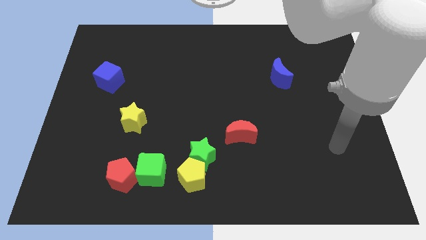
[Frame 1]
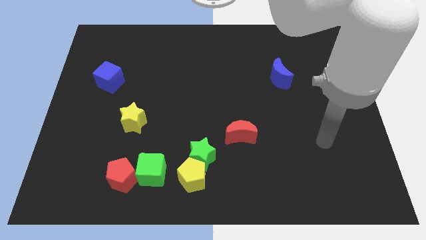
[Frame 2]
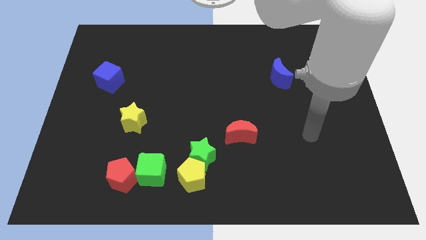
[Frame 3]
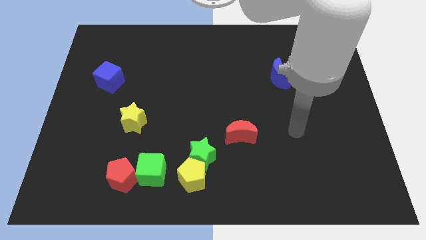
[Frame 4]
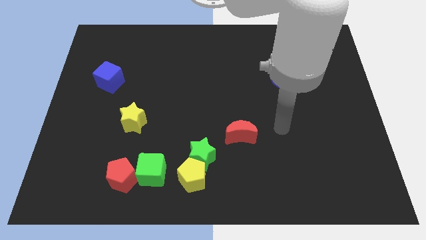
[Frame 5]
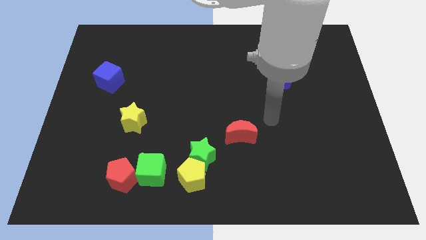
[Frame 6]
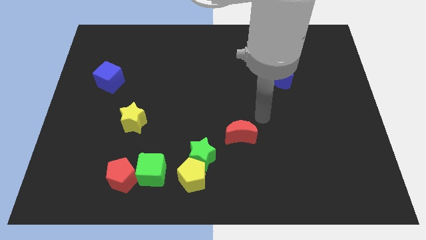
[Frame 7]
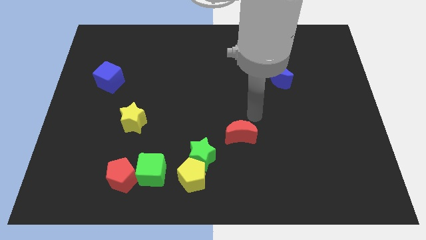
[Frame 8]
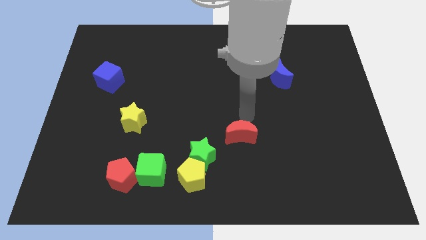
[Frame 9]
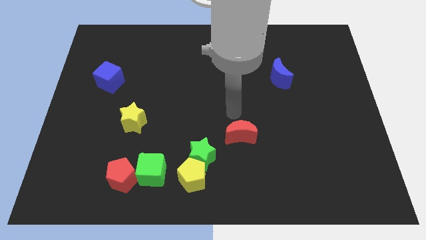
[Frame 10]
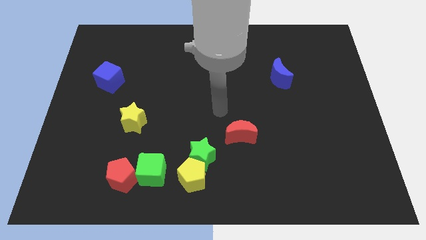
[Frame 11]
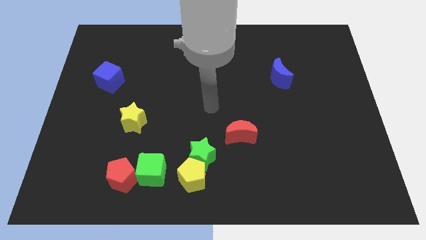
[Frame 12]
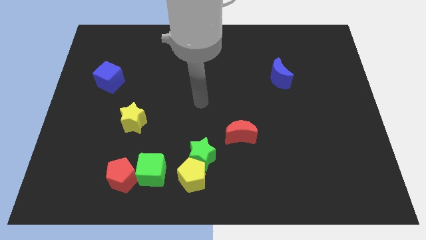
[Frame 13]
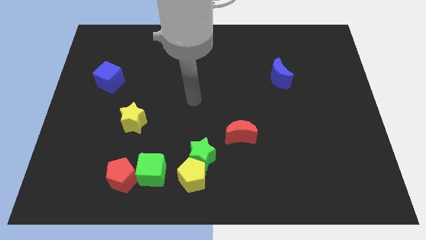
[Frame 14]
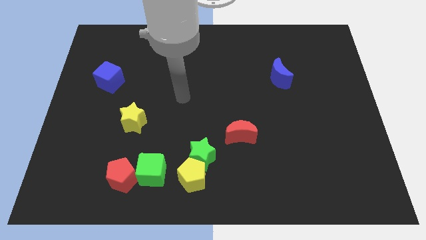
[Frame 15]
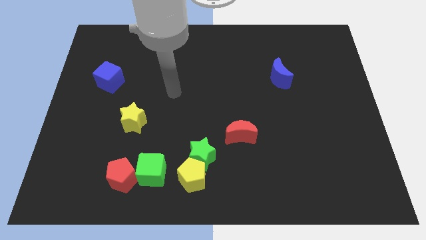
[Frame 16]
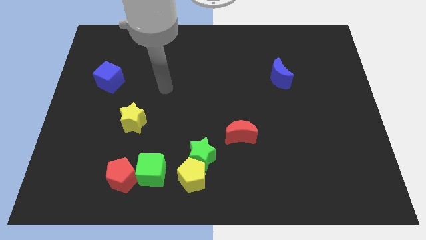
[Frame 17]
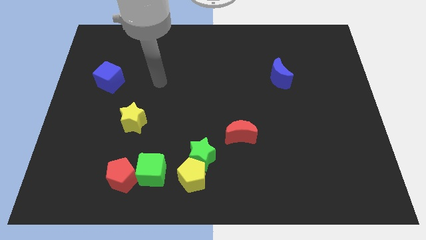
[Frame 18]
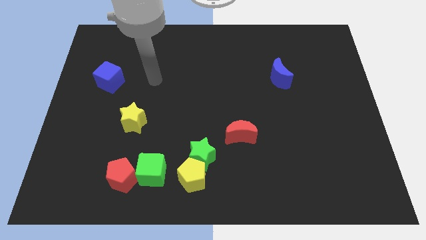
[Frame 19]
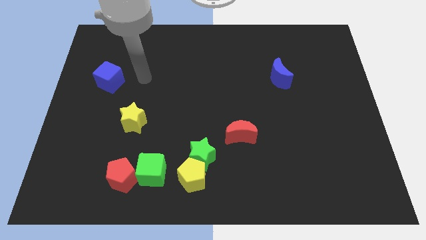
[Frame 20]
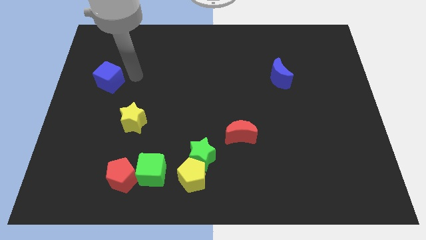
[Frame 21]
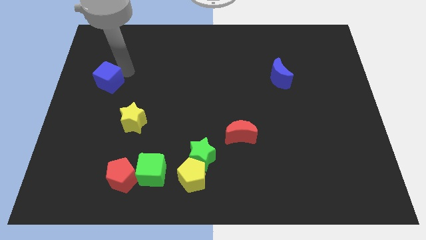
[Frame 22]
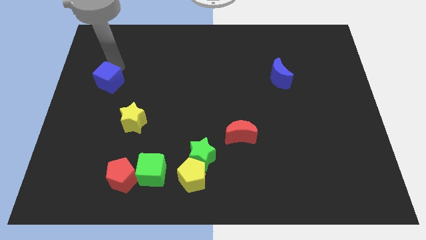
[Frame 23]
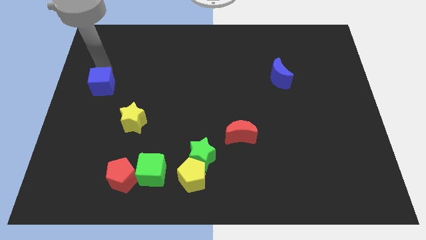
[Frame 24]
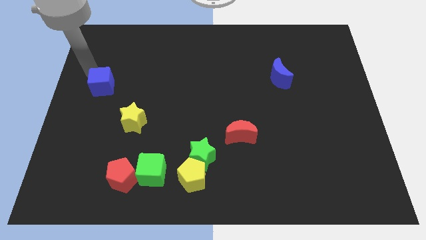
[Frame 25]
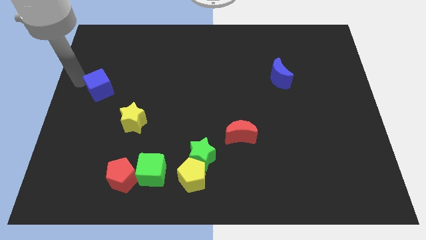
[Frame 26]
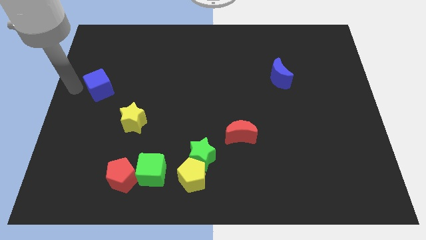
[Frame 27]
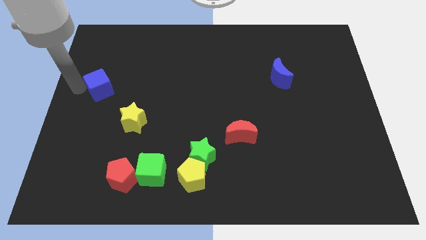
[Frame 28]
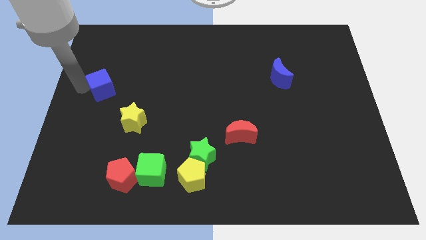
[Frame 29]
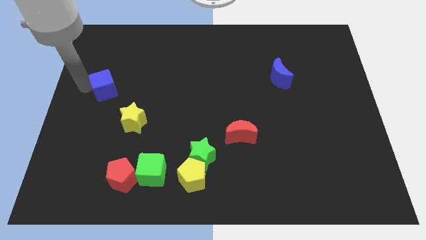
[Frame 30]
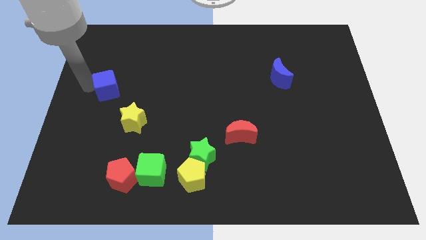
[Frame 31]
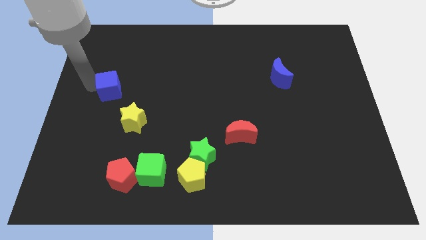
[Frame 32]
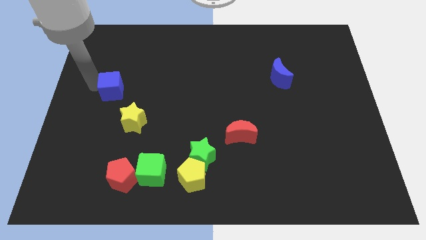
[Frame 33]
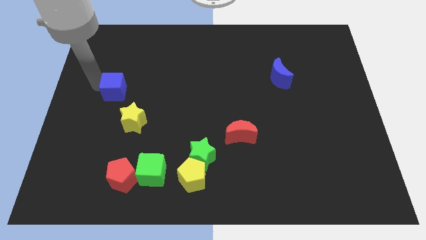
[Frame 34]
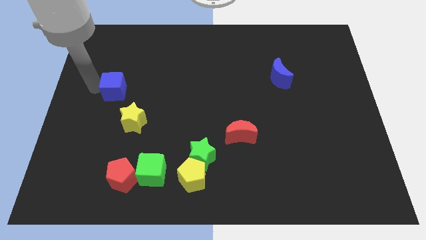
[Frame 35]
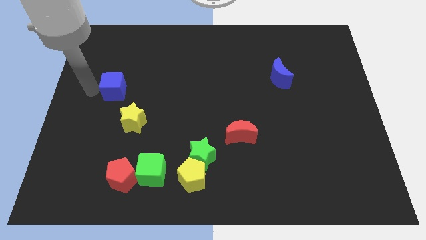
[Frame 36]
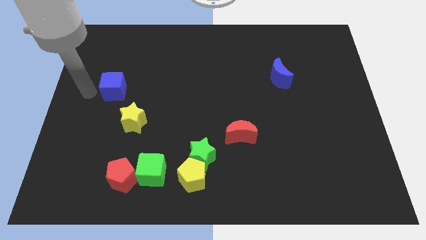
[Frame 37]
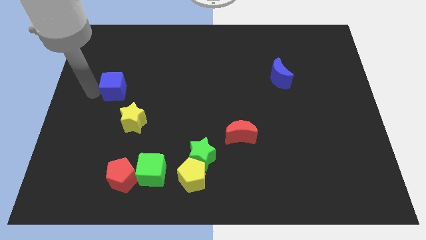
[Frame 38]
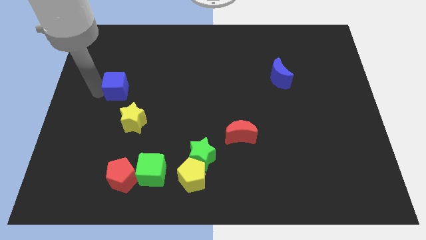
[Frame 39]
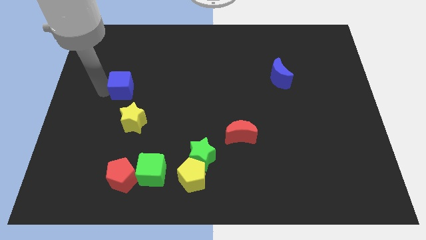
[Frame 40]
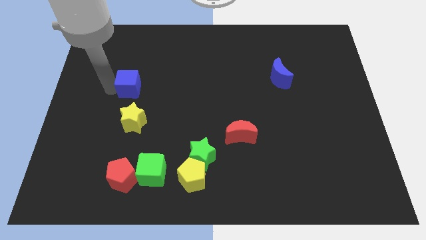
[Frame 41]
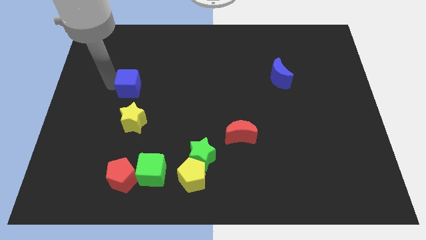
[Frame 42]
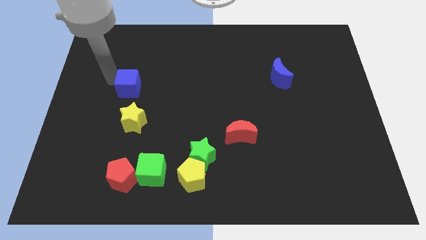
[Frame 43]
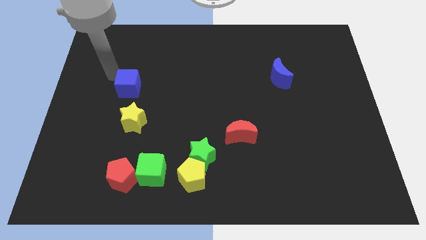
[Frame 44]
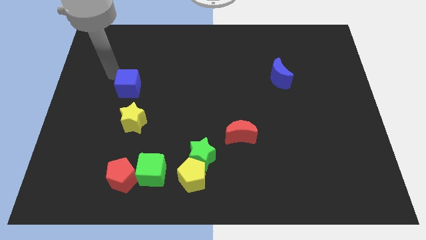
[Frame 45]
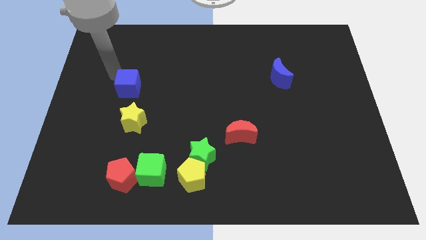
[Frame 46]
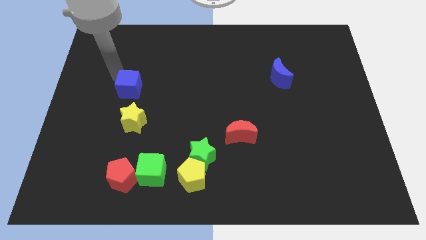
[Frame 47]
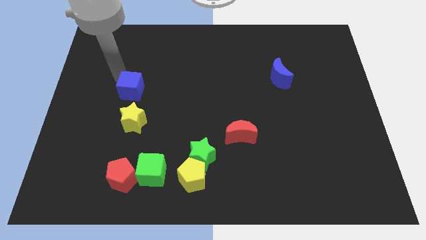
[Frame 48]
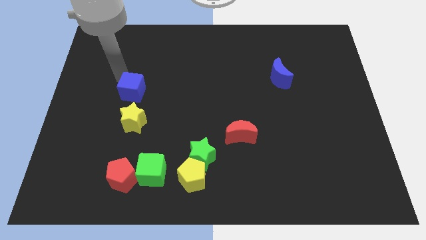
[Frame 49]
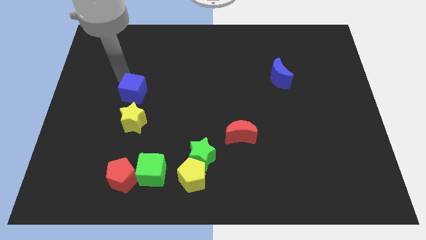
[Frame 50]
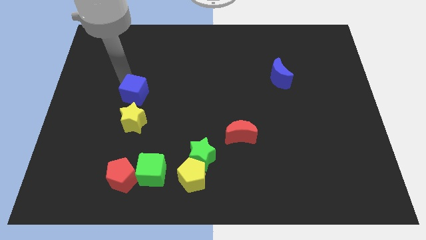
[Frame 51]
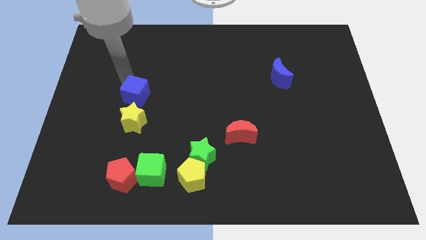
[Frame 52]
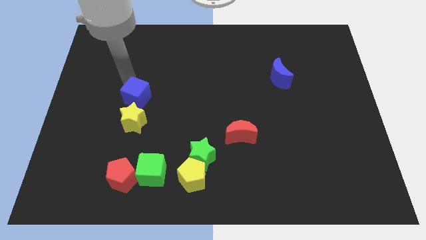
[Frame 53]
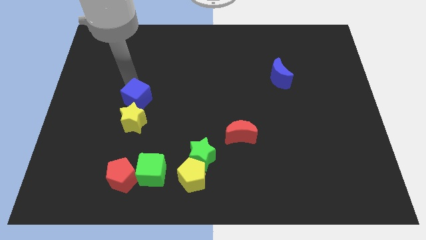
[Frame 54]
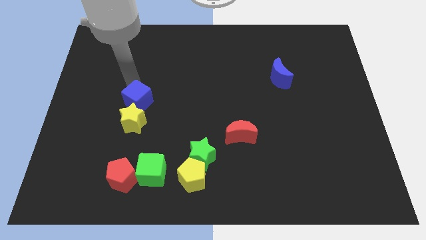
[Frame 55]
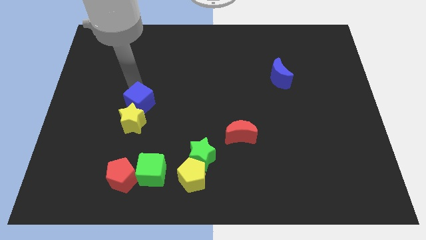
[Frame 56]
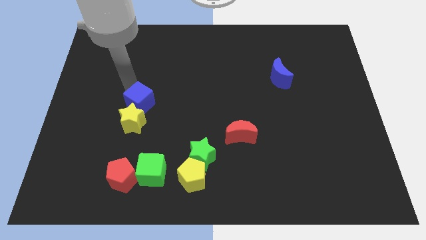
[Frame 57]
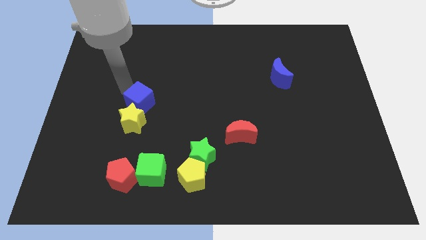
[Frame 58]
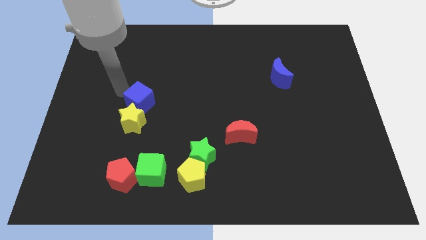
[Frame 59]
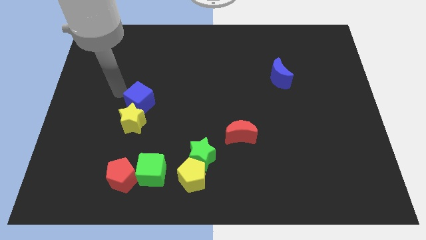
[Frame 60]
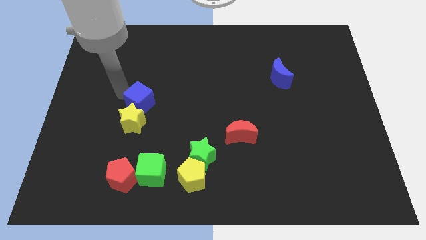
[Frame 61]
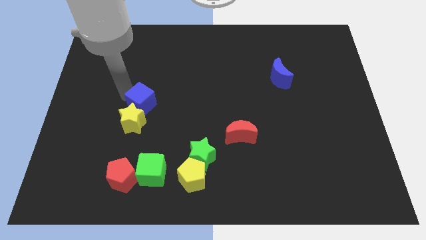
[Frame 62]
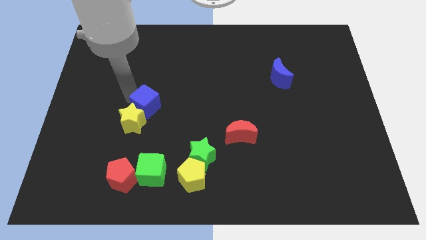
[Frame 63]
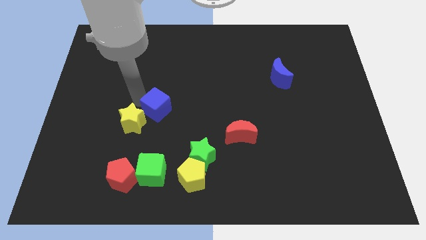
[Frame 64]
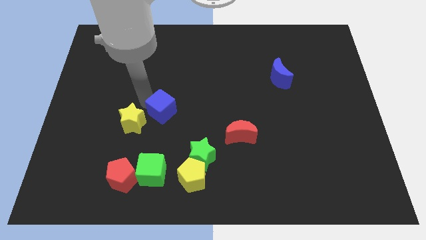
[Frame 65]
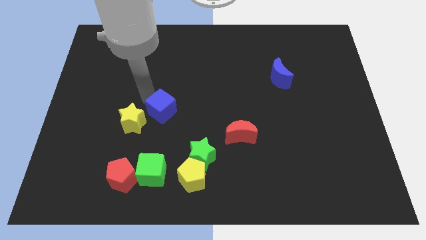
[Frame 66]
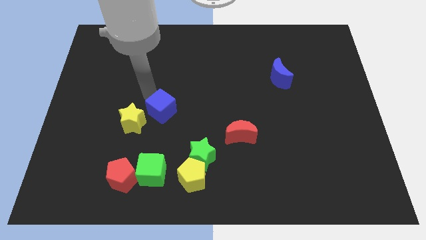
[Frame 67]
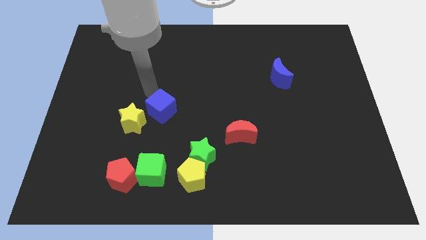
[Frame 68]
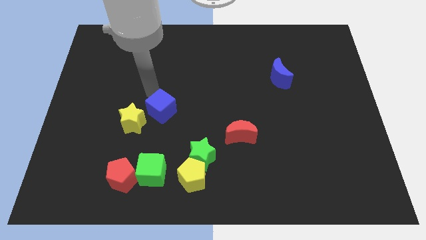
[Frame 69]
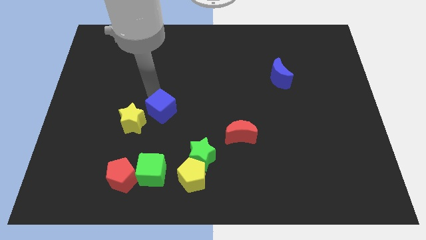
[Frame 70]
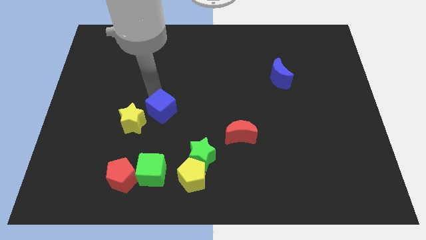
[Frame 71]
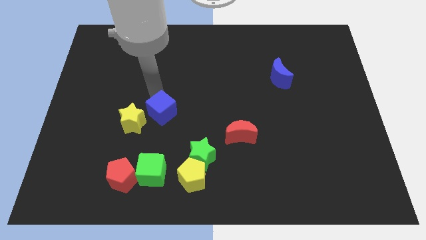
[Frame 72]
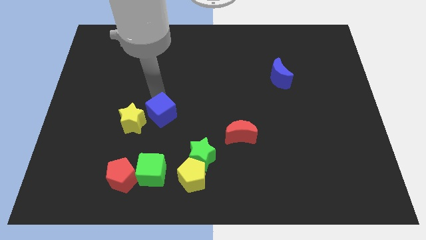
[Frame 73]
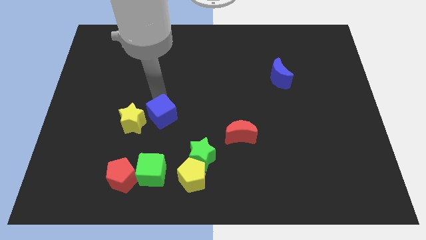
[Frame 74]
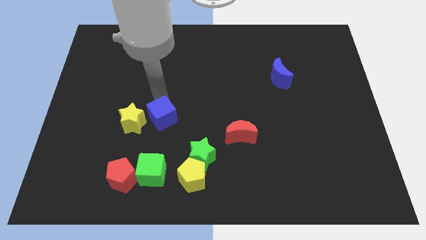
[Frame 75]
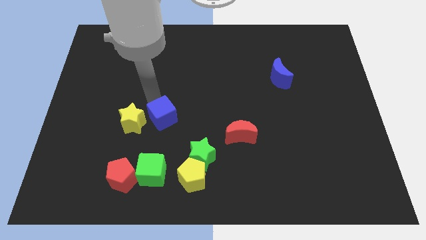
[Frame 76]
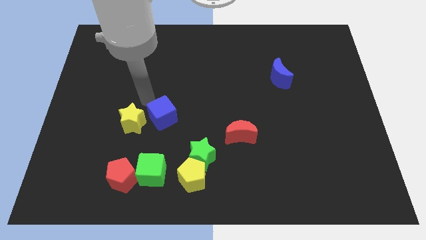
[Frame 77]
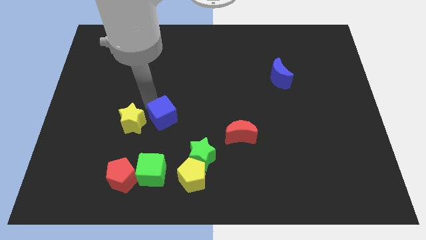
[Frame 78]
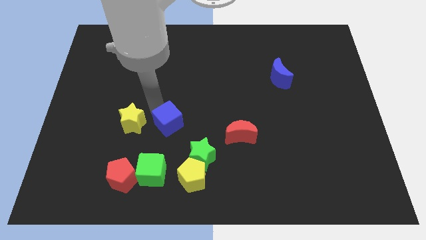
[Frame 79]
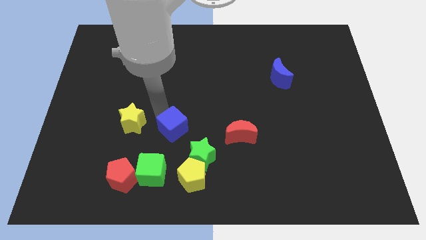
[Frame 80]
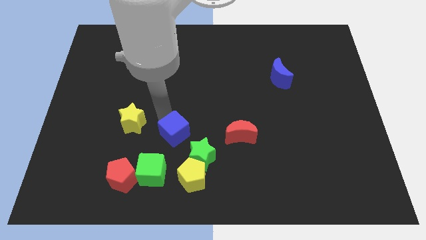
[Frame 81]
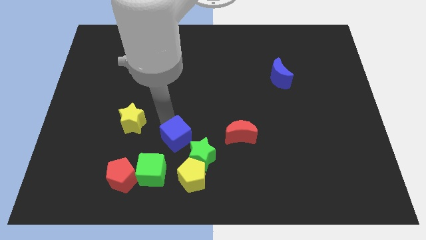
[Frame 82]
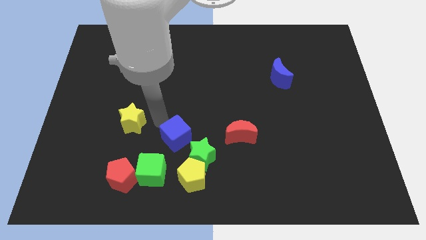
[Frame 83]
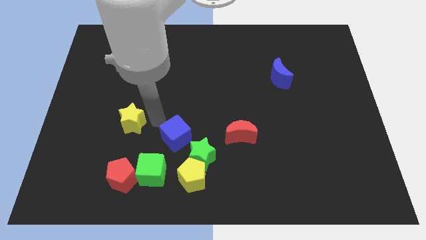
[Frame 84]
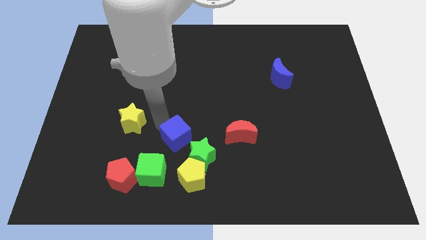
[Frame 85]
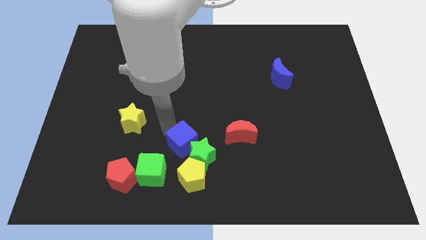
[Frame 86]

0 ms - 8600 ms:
put the blue cube close to the green star
